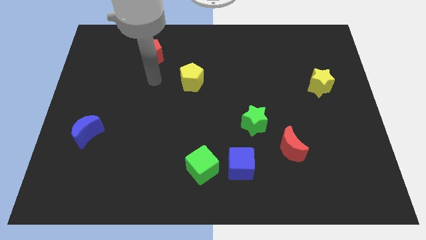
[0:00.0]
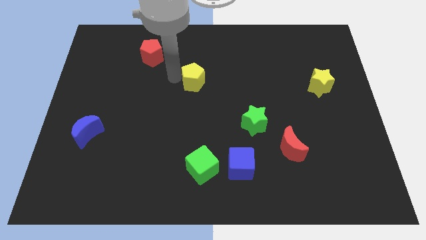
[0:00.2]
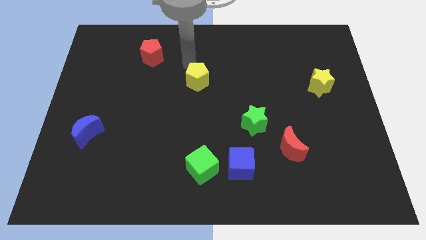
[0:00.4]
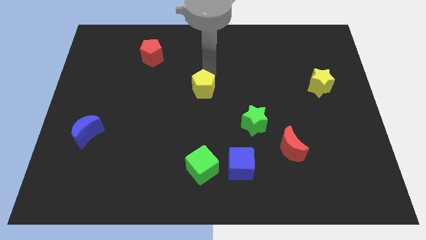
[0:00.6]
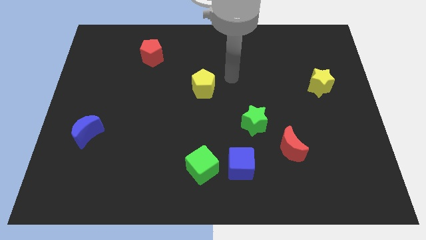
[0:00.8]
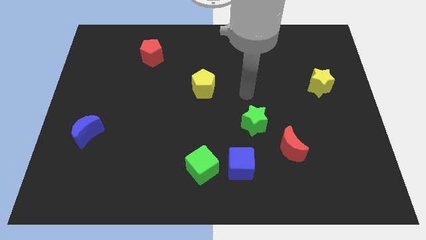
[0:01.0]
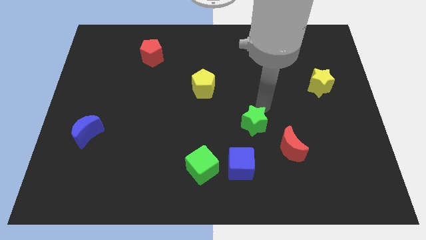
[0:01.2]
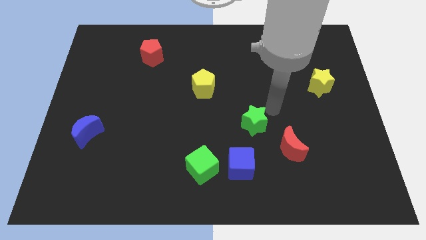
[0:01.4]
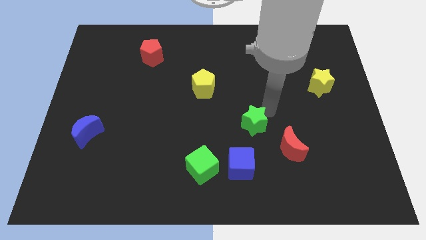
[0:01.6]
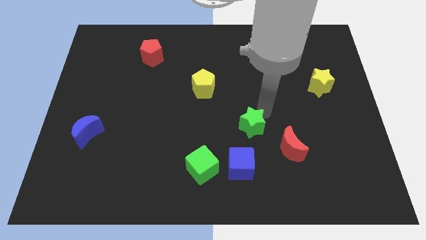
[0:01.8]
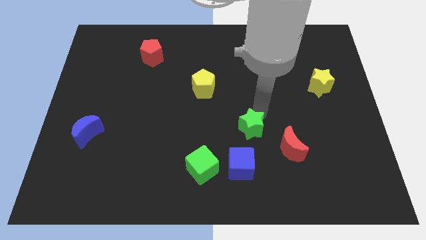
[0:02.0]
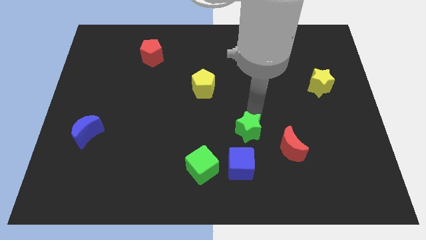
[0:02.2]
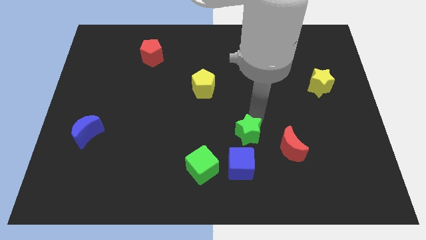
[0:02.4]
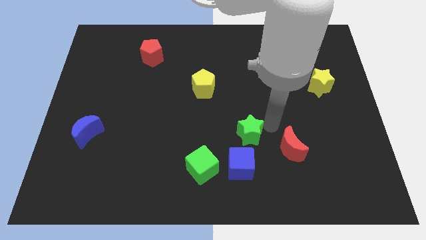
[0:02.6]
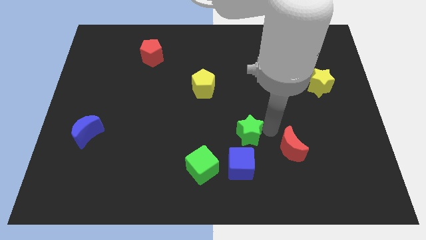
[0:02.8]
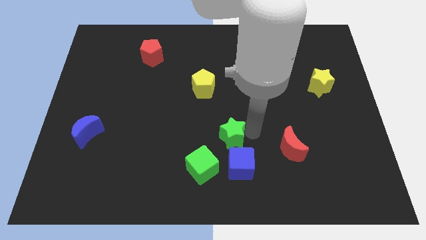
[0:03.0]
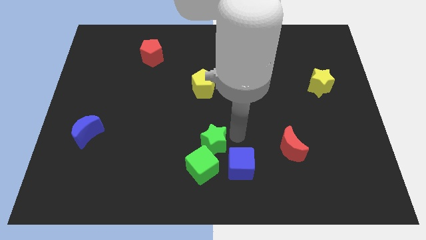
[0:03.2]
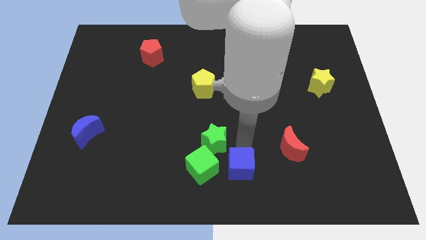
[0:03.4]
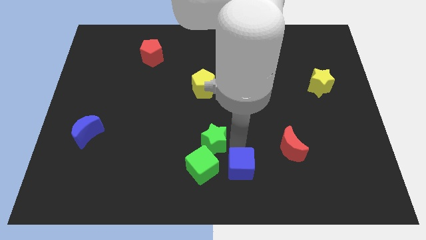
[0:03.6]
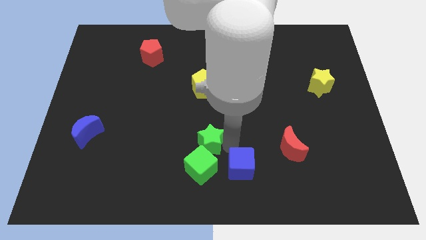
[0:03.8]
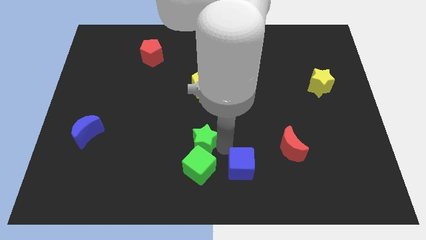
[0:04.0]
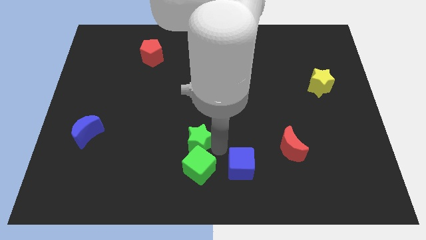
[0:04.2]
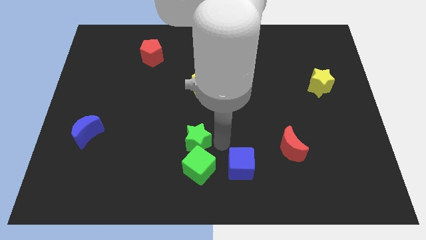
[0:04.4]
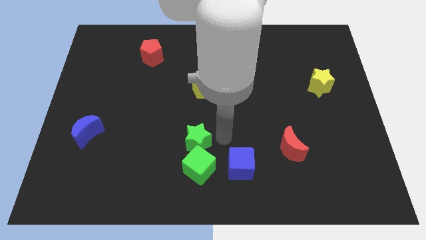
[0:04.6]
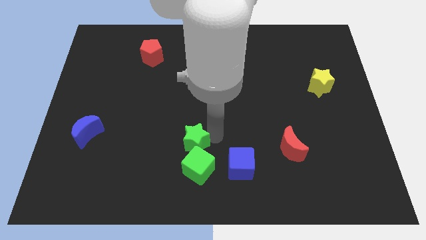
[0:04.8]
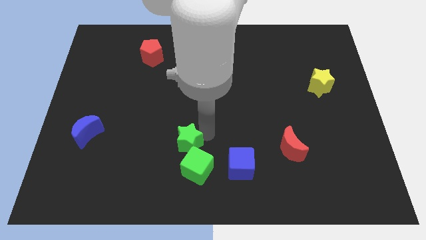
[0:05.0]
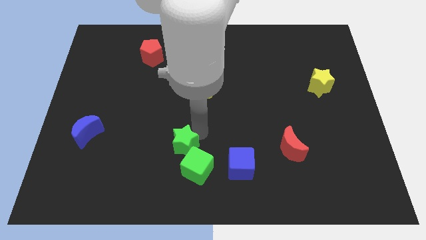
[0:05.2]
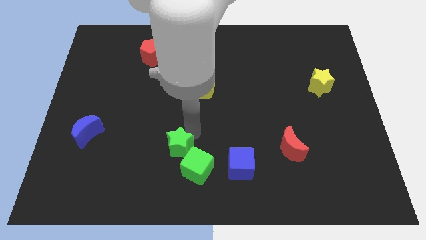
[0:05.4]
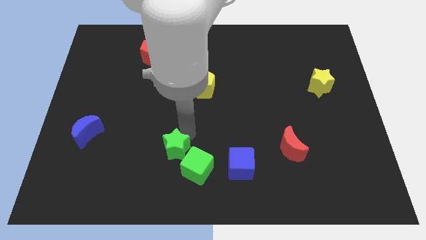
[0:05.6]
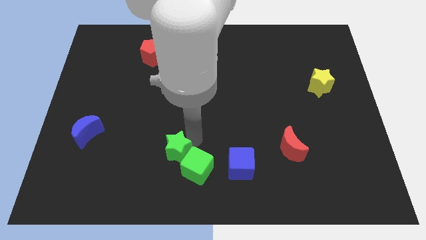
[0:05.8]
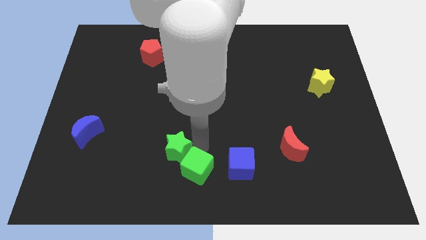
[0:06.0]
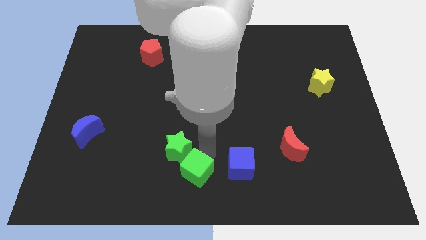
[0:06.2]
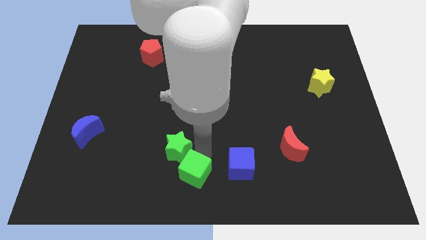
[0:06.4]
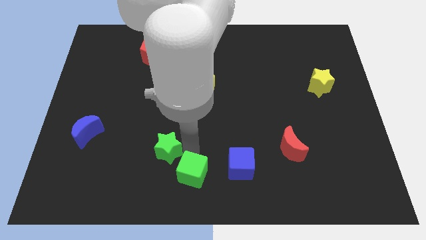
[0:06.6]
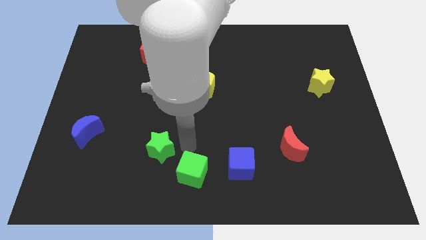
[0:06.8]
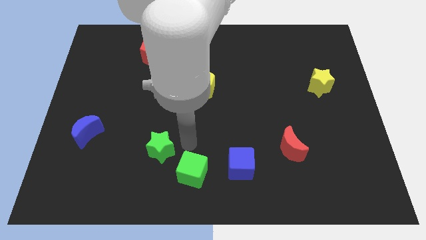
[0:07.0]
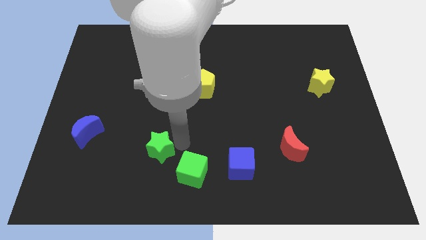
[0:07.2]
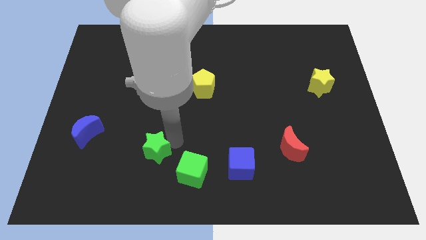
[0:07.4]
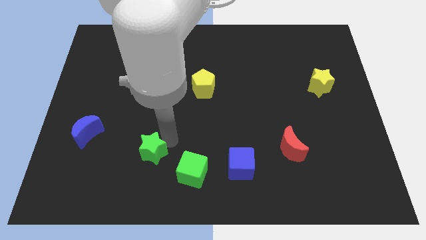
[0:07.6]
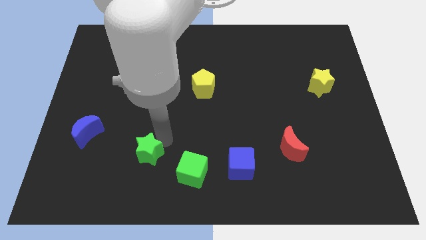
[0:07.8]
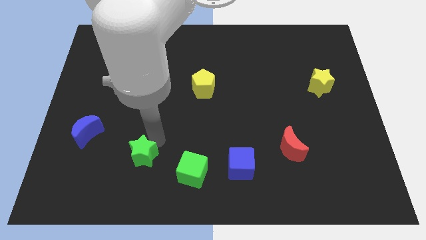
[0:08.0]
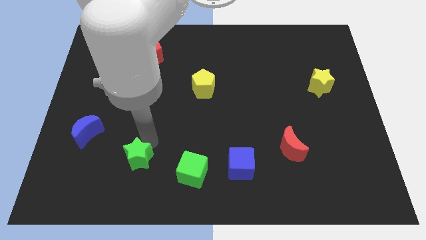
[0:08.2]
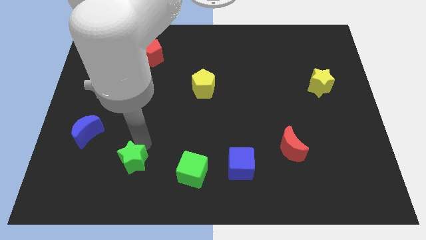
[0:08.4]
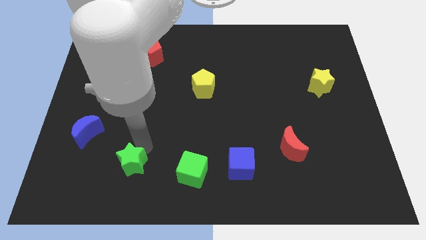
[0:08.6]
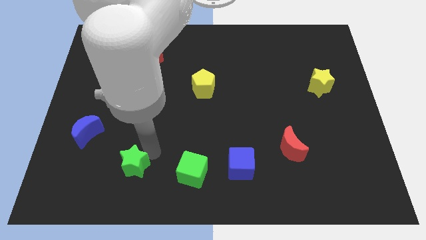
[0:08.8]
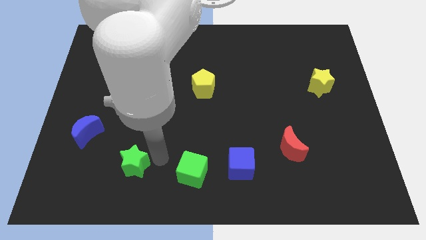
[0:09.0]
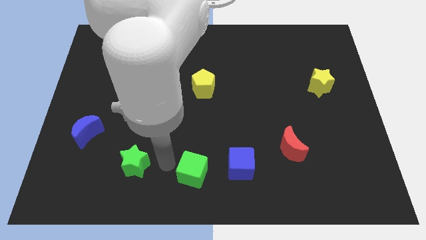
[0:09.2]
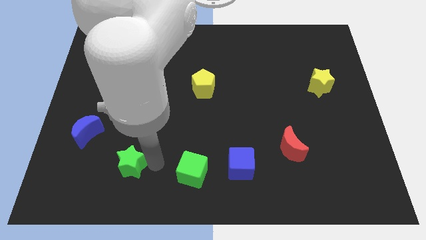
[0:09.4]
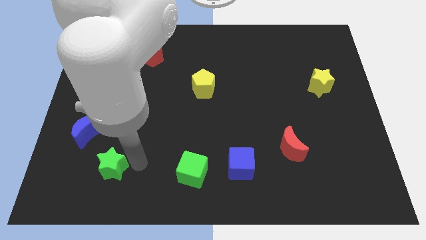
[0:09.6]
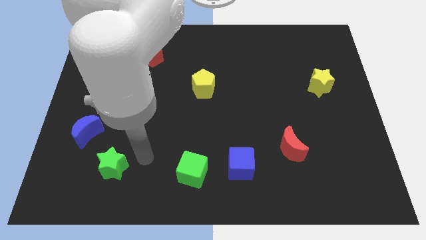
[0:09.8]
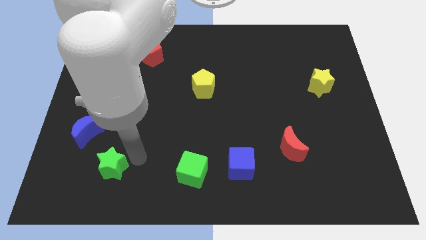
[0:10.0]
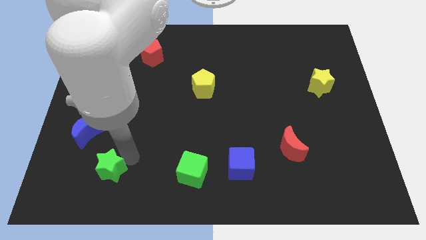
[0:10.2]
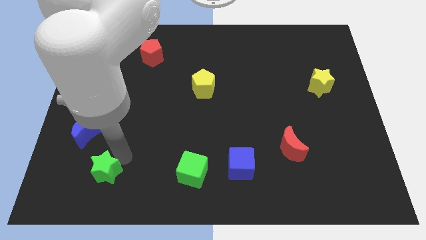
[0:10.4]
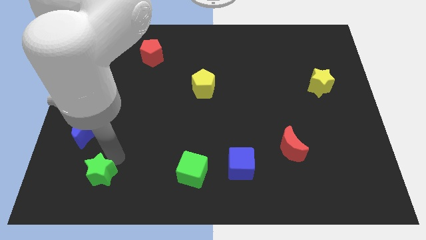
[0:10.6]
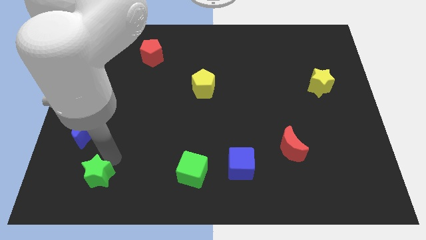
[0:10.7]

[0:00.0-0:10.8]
slide the green star below the blue moon

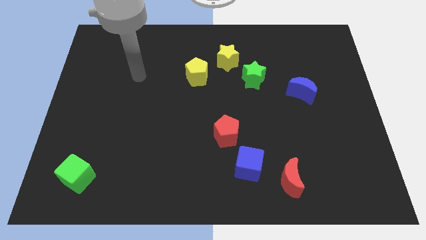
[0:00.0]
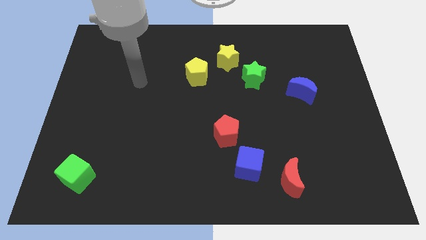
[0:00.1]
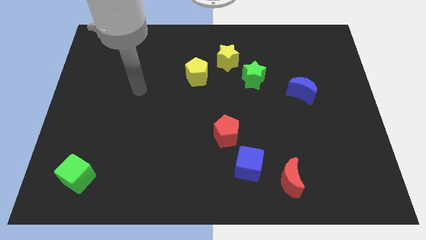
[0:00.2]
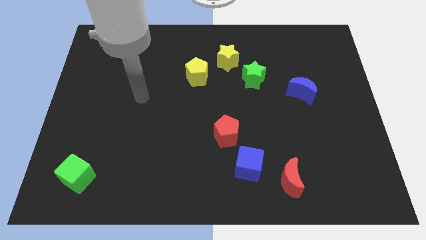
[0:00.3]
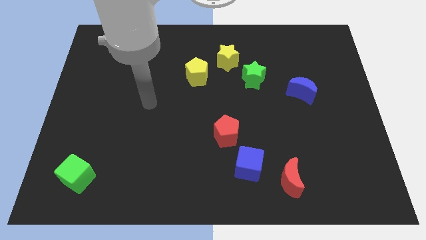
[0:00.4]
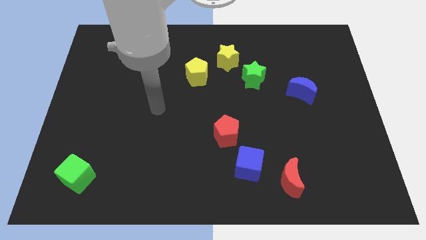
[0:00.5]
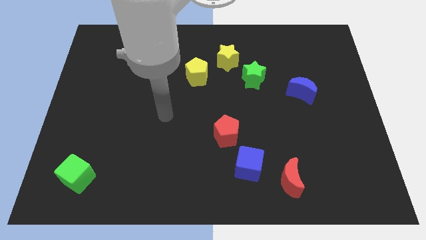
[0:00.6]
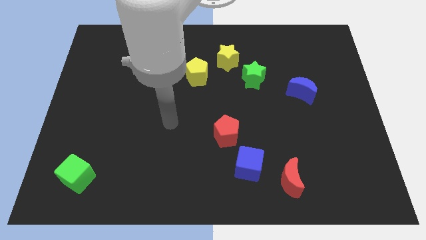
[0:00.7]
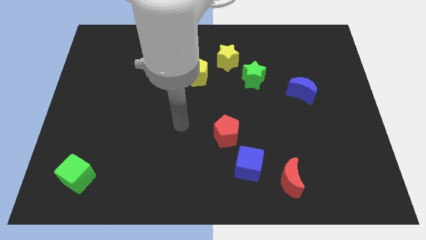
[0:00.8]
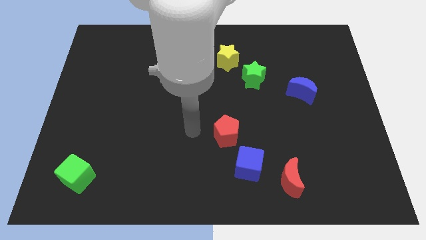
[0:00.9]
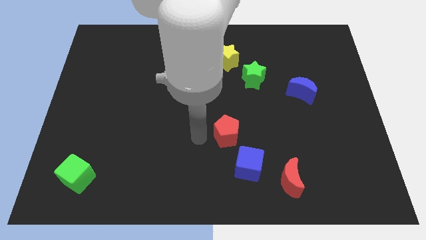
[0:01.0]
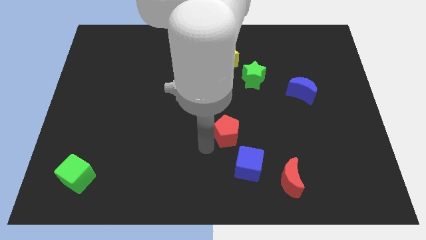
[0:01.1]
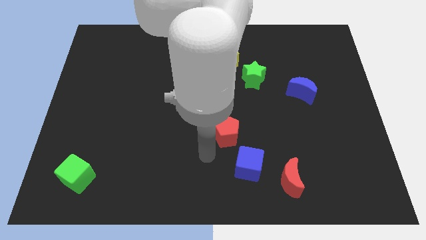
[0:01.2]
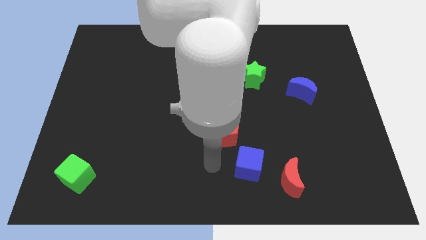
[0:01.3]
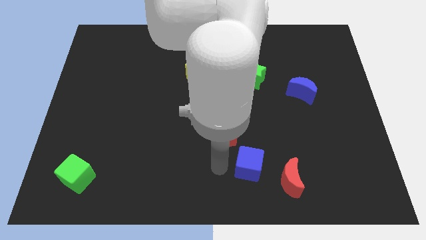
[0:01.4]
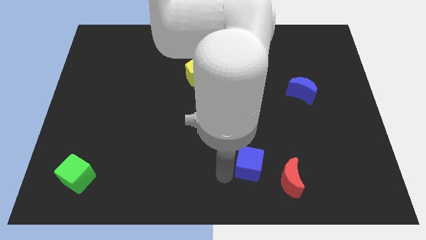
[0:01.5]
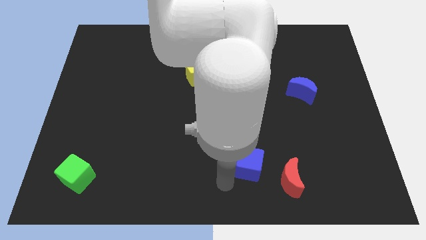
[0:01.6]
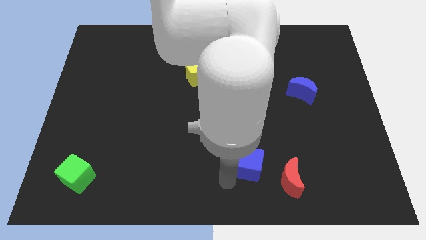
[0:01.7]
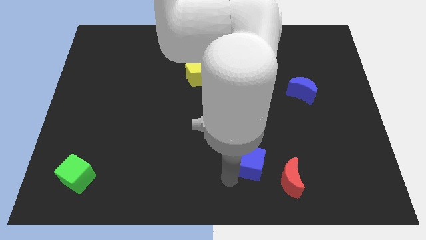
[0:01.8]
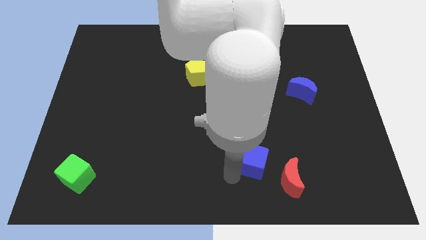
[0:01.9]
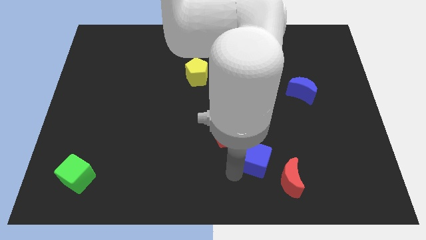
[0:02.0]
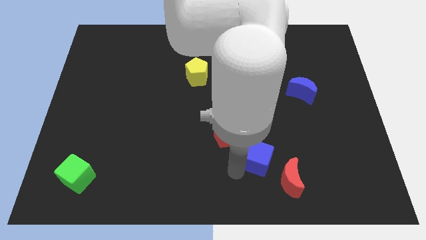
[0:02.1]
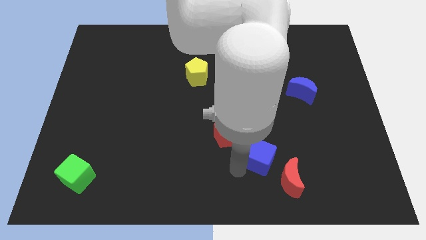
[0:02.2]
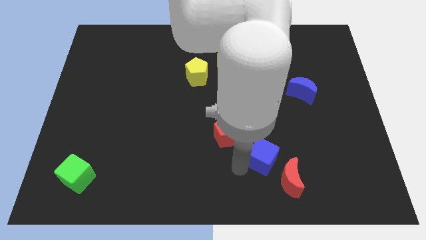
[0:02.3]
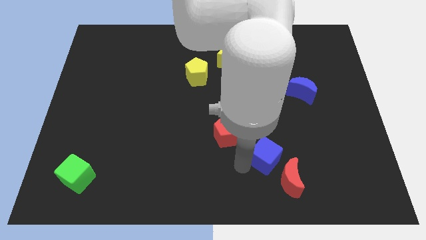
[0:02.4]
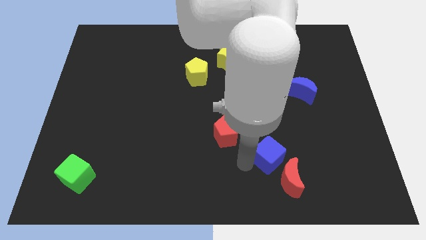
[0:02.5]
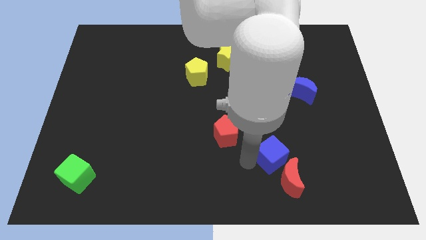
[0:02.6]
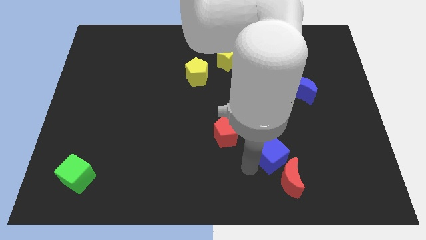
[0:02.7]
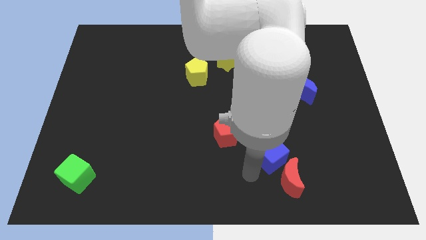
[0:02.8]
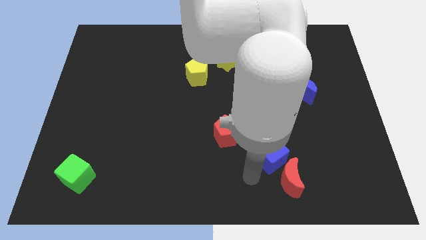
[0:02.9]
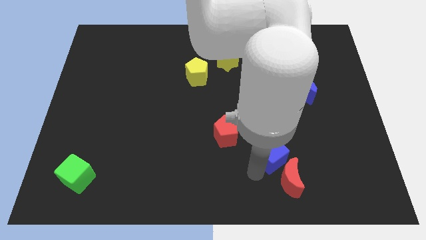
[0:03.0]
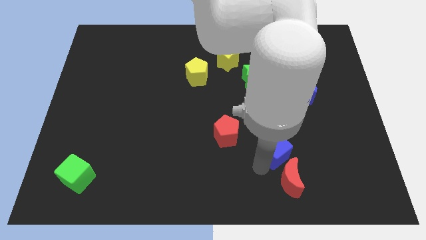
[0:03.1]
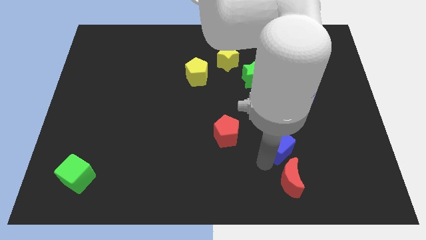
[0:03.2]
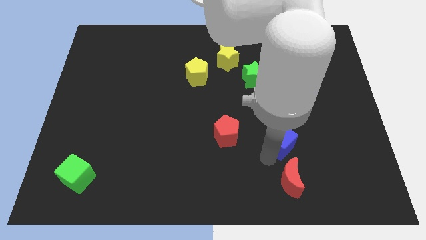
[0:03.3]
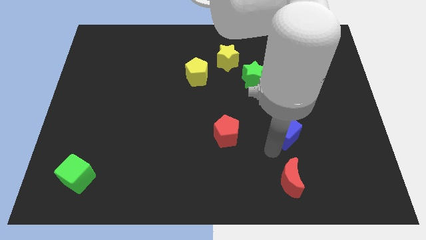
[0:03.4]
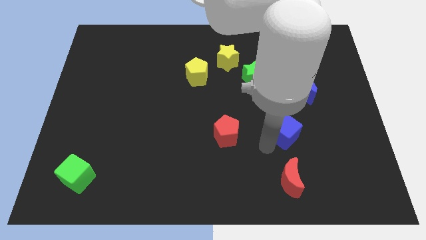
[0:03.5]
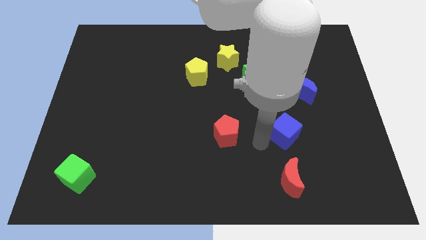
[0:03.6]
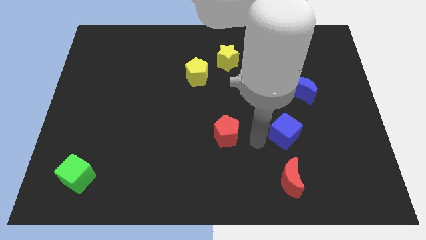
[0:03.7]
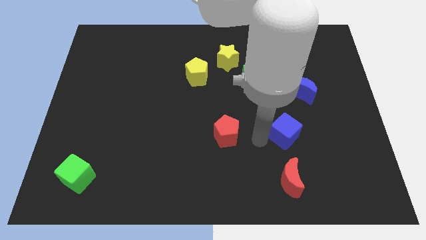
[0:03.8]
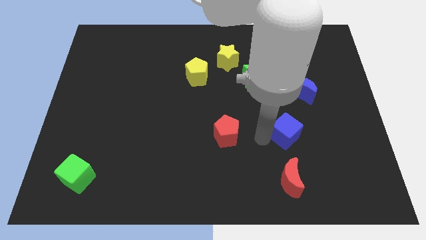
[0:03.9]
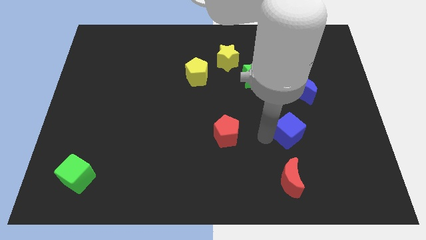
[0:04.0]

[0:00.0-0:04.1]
slide the blue cube to the bottom side of the blue moon
